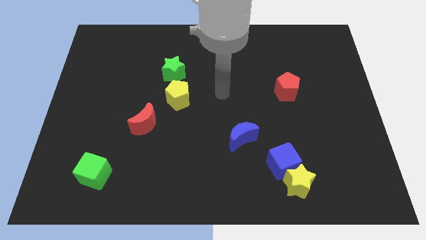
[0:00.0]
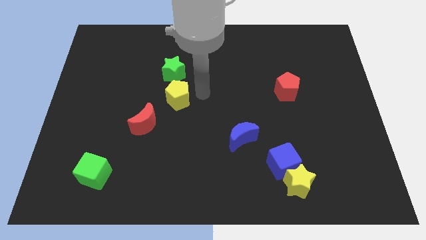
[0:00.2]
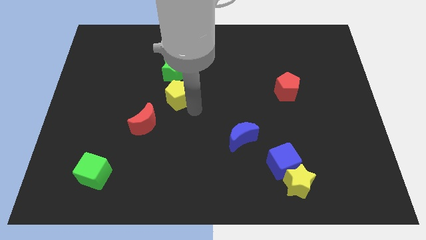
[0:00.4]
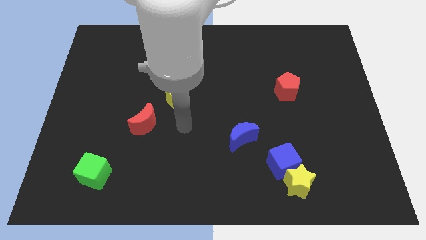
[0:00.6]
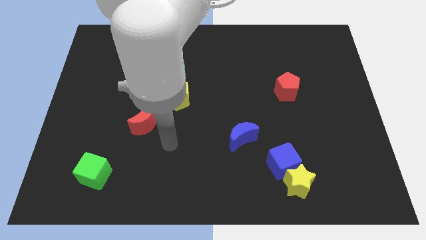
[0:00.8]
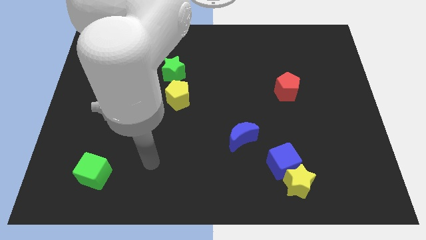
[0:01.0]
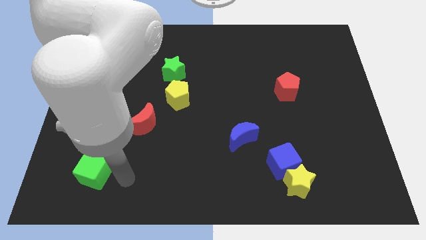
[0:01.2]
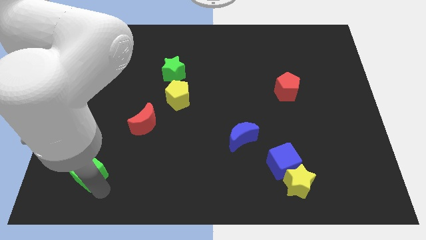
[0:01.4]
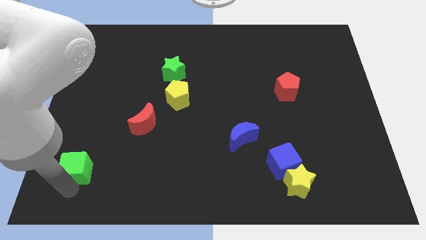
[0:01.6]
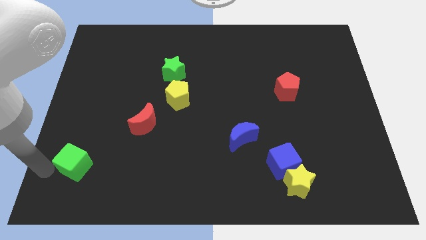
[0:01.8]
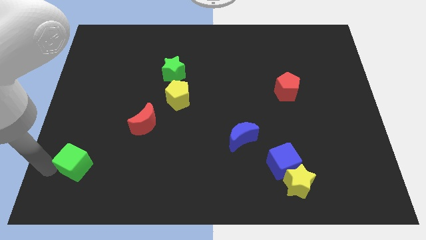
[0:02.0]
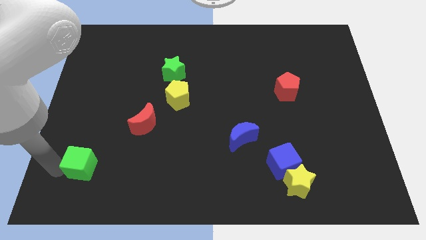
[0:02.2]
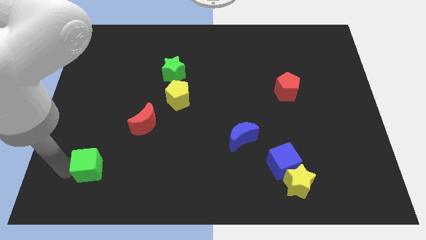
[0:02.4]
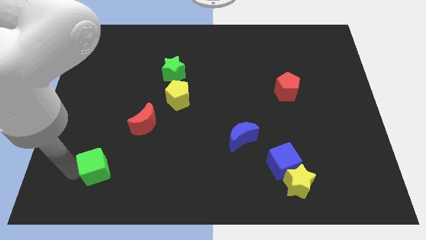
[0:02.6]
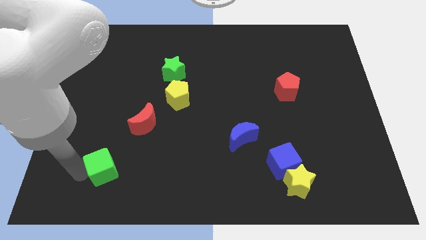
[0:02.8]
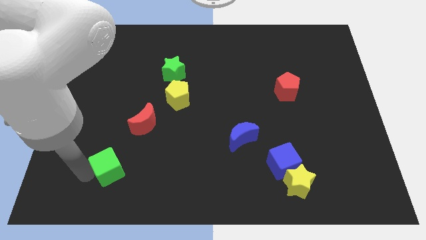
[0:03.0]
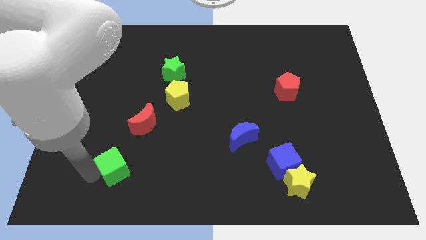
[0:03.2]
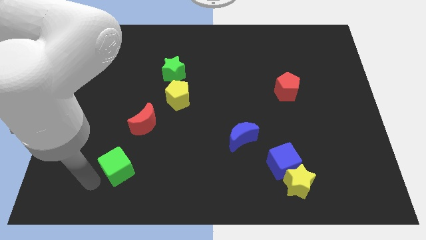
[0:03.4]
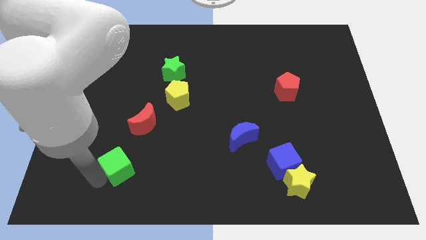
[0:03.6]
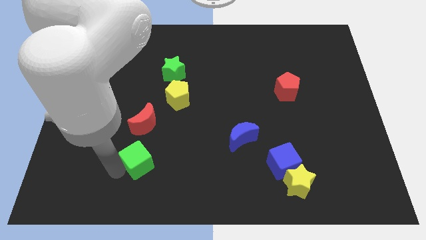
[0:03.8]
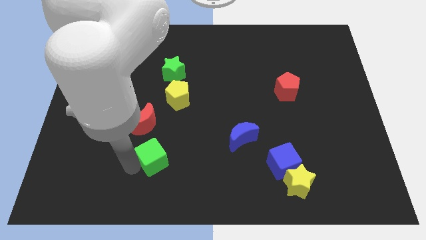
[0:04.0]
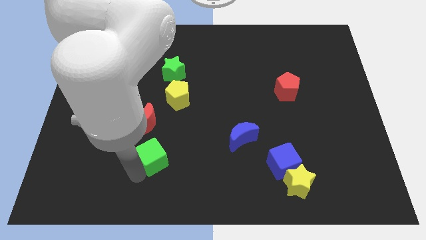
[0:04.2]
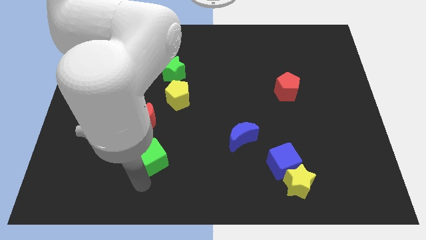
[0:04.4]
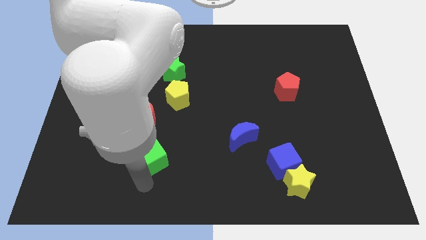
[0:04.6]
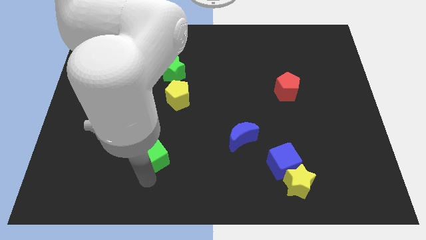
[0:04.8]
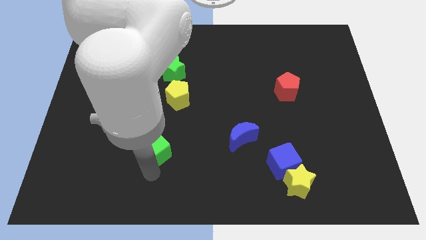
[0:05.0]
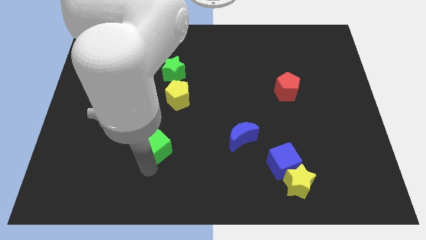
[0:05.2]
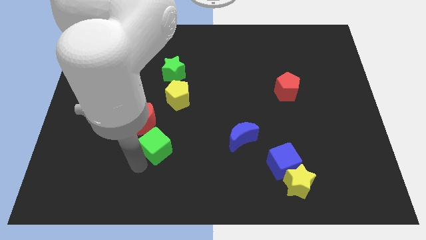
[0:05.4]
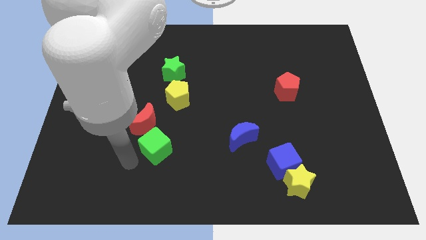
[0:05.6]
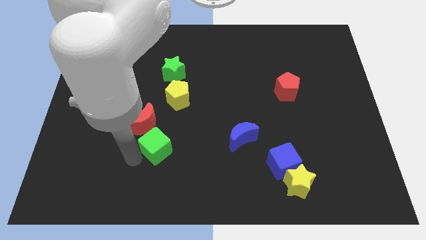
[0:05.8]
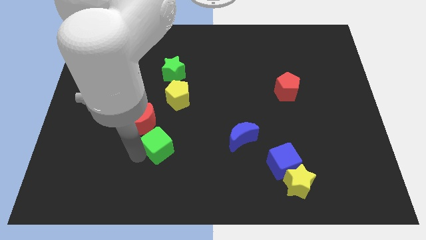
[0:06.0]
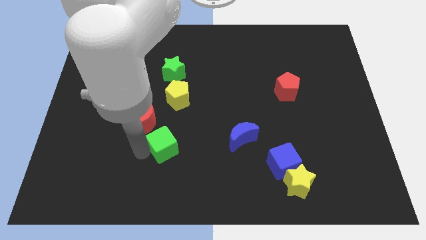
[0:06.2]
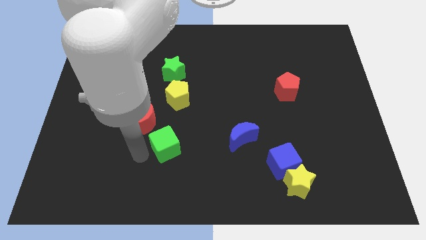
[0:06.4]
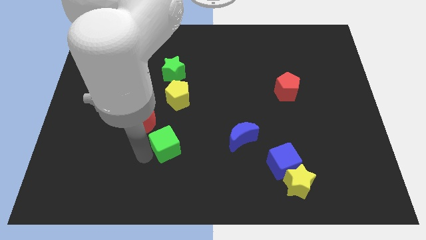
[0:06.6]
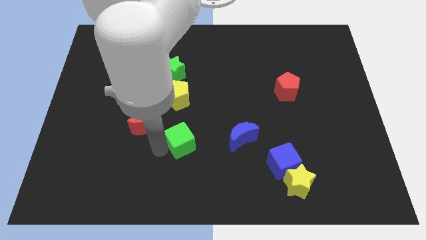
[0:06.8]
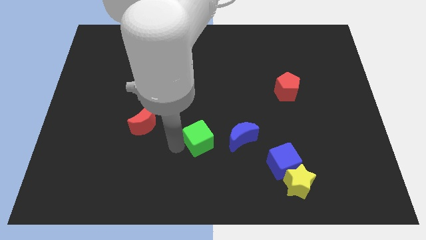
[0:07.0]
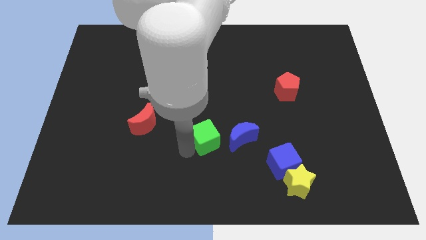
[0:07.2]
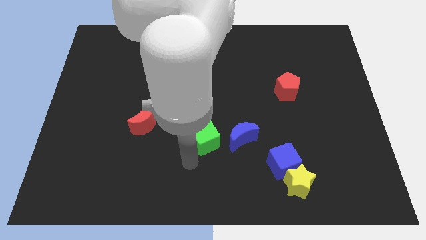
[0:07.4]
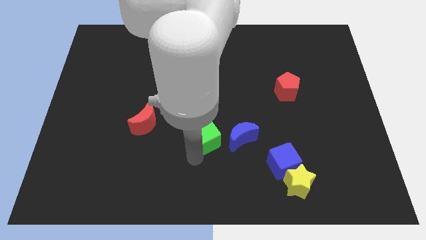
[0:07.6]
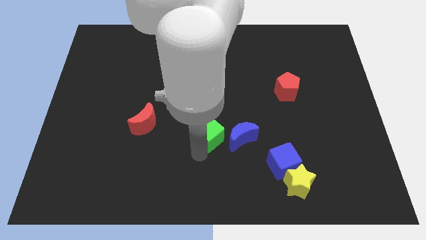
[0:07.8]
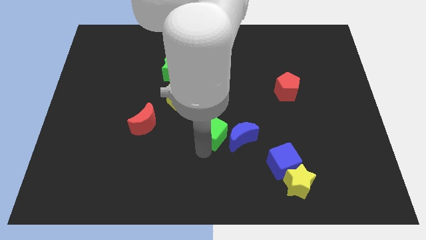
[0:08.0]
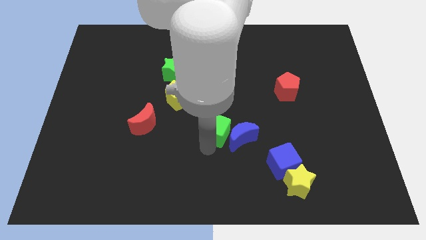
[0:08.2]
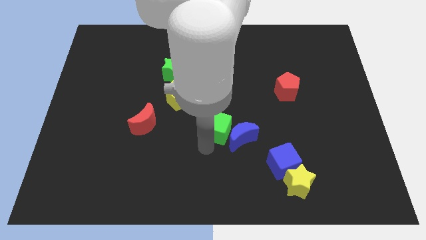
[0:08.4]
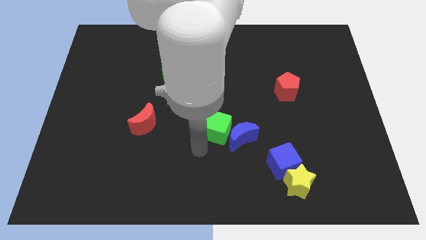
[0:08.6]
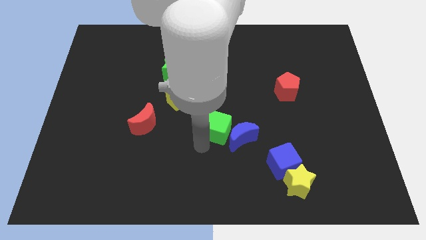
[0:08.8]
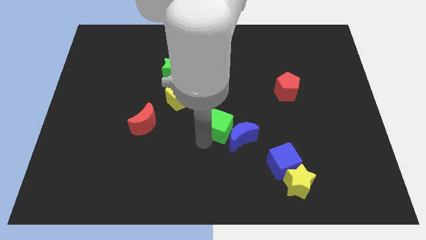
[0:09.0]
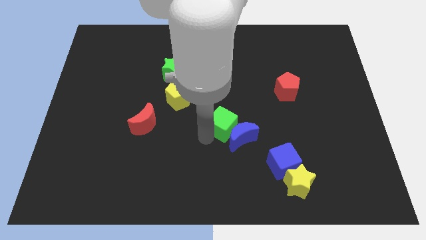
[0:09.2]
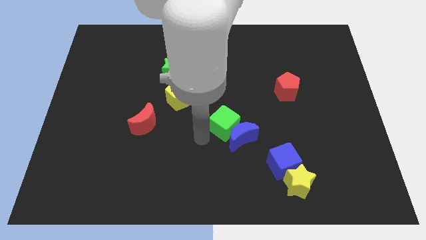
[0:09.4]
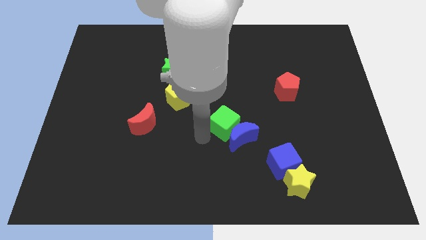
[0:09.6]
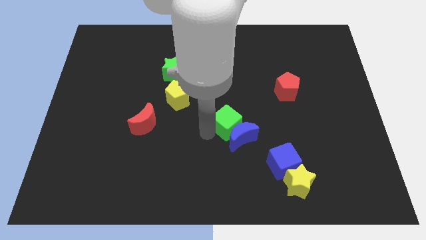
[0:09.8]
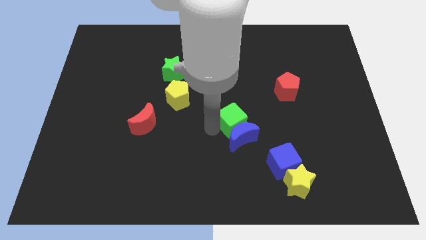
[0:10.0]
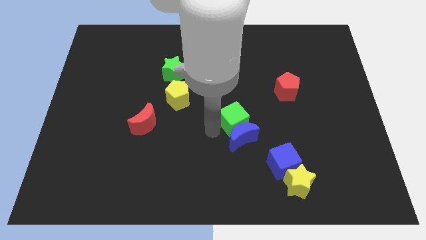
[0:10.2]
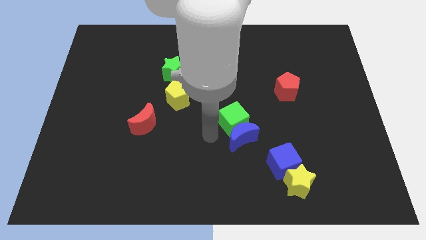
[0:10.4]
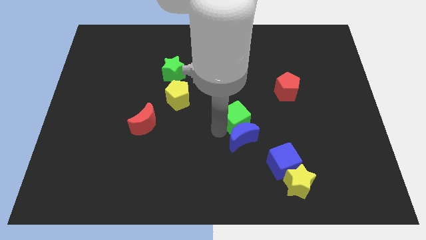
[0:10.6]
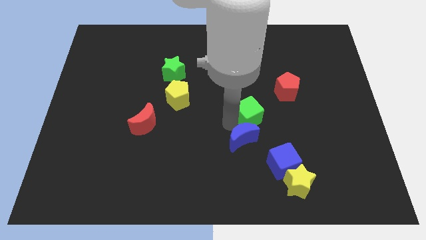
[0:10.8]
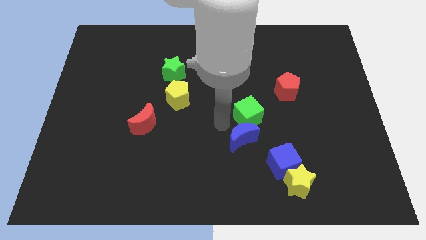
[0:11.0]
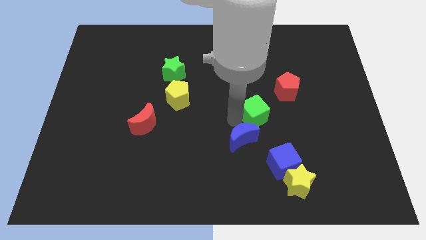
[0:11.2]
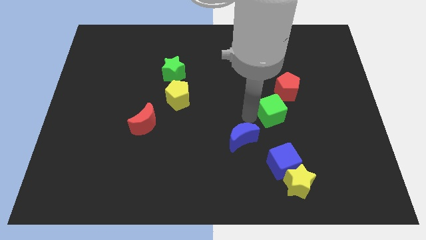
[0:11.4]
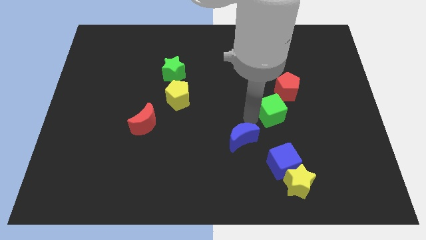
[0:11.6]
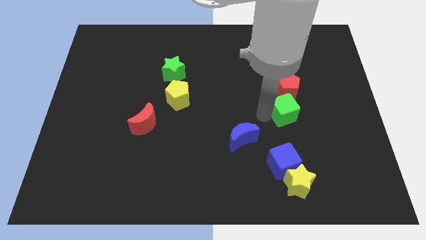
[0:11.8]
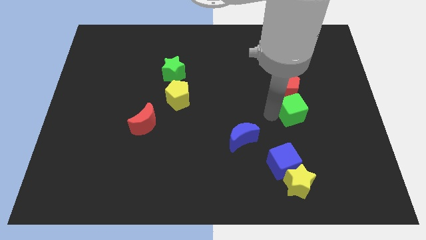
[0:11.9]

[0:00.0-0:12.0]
put the green cube to the bottom right side of the red pentagon

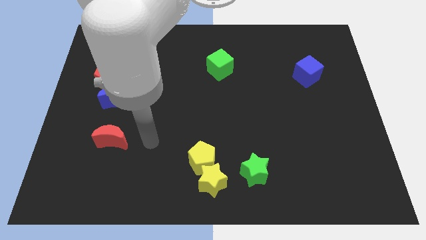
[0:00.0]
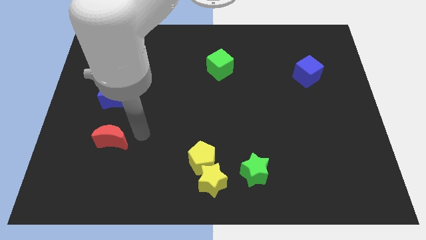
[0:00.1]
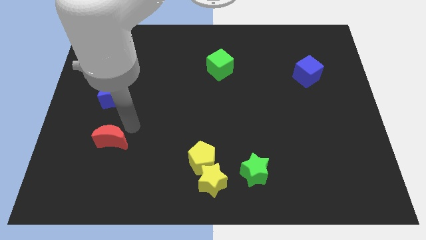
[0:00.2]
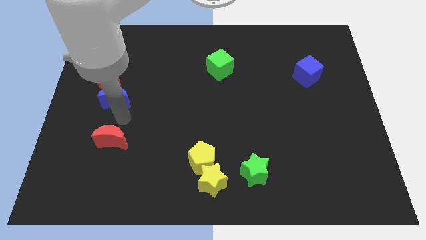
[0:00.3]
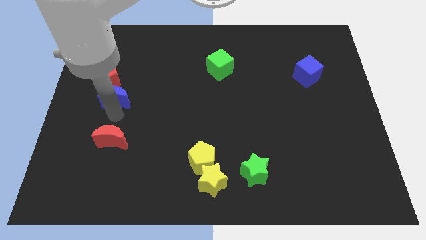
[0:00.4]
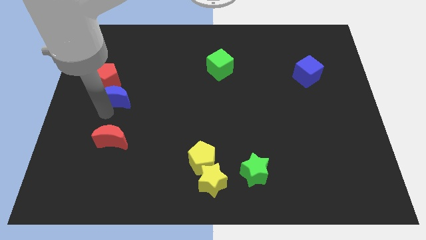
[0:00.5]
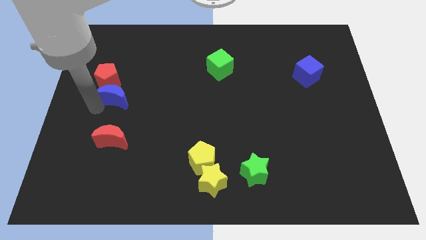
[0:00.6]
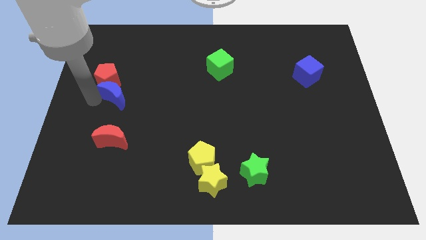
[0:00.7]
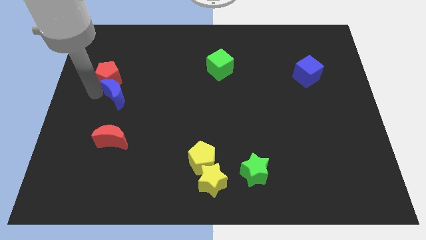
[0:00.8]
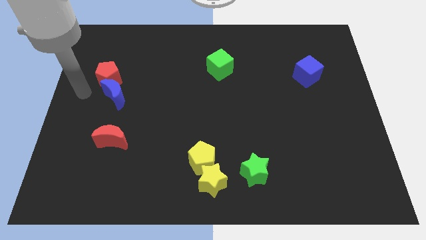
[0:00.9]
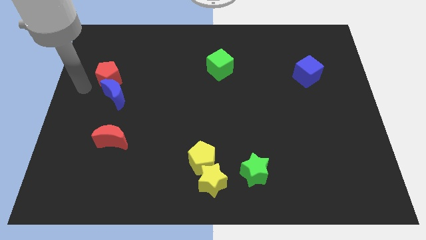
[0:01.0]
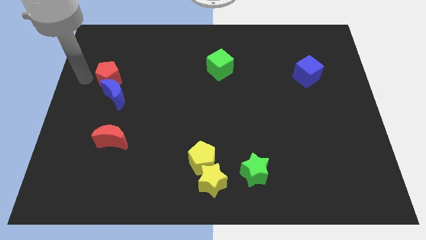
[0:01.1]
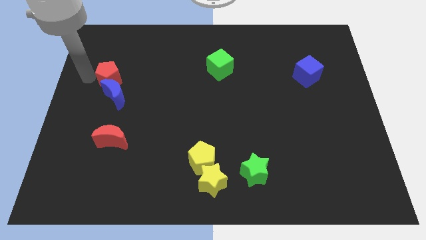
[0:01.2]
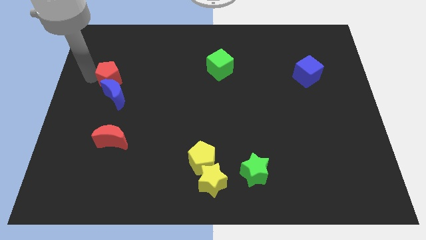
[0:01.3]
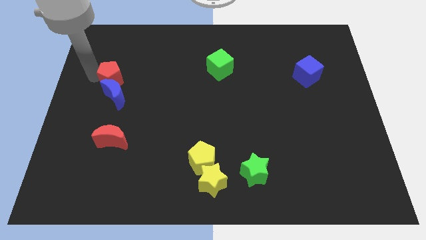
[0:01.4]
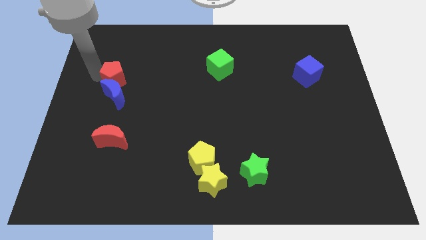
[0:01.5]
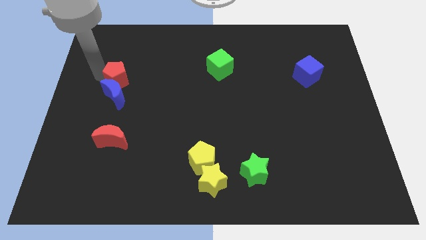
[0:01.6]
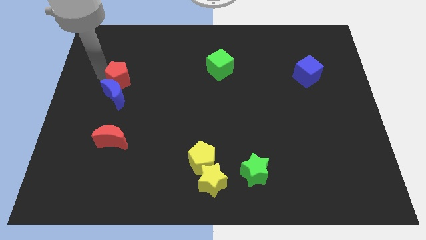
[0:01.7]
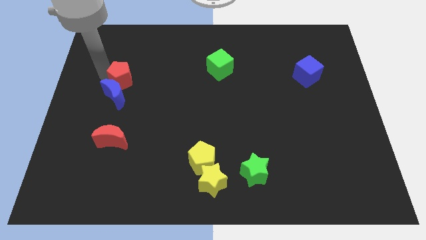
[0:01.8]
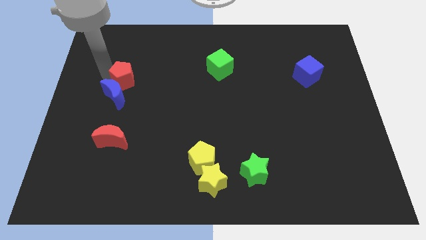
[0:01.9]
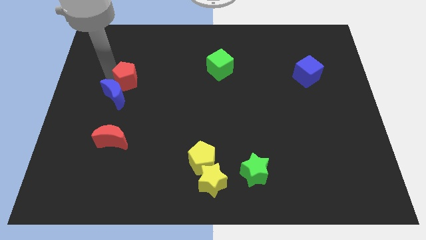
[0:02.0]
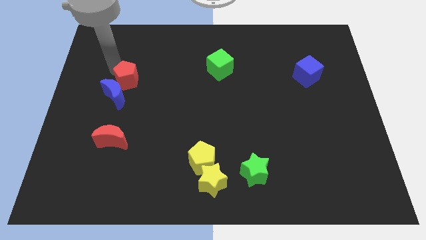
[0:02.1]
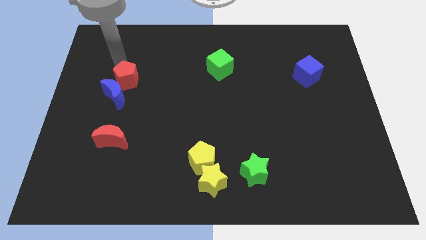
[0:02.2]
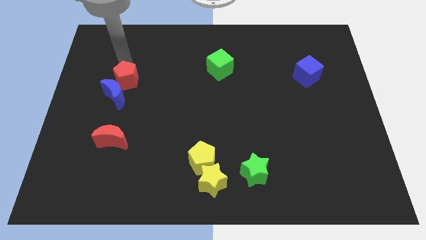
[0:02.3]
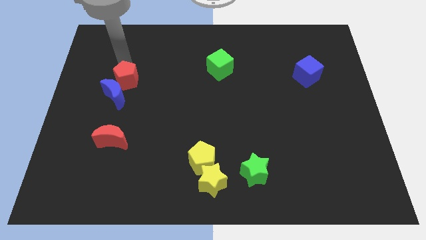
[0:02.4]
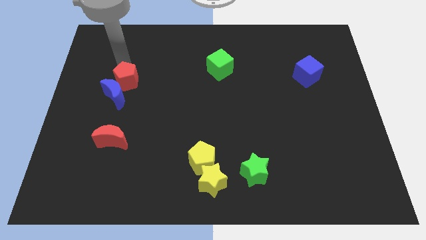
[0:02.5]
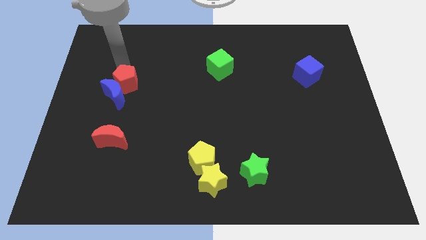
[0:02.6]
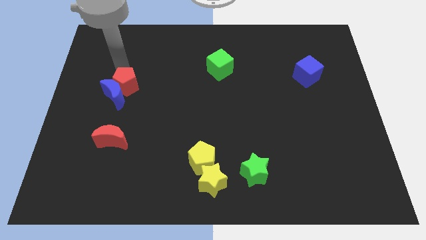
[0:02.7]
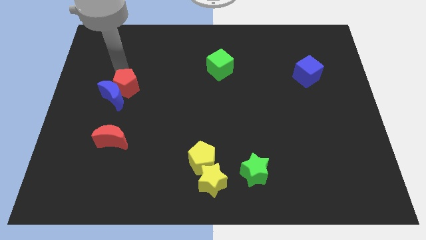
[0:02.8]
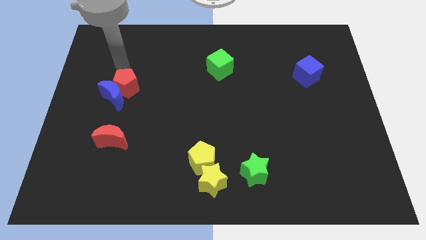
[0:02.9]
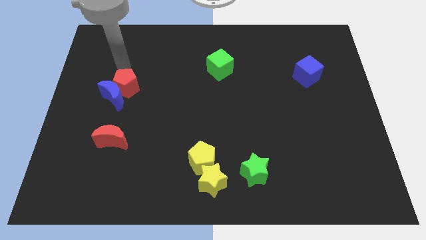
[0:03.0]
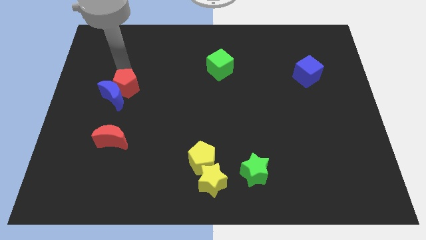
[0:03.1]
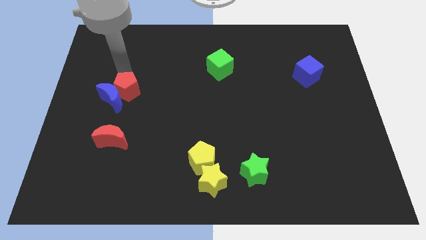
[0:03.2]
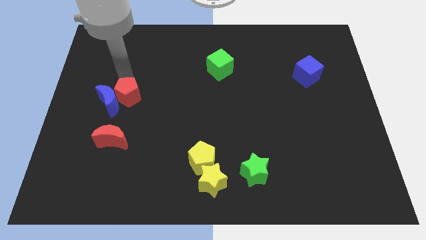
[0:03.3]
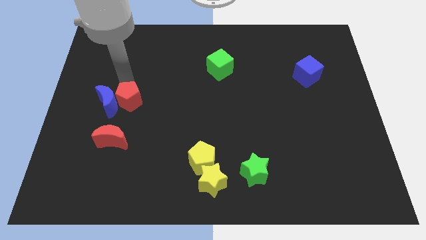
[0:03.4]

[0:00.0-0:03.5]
move the red pentagon to the bottom right of the blue moon
